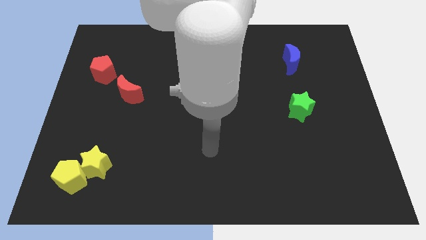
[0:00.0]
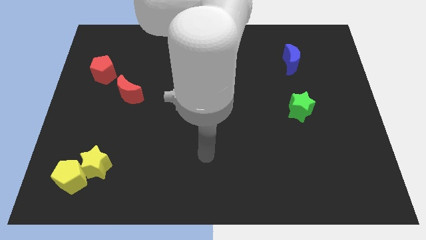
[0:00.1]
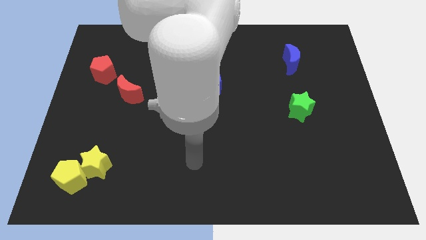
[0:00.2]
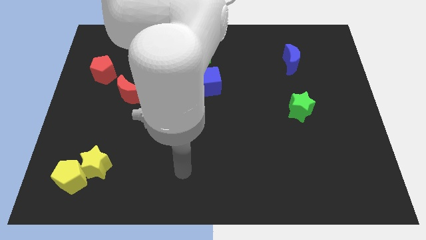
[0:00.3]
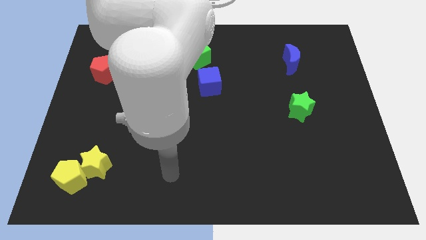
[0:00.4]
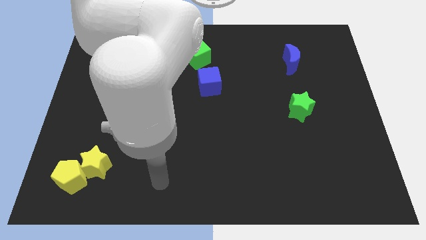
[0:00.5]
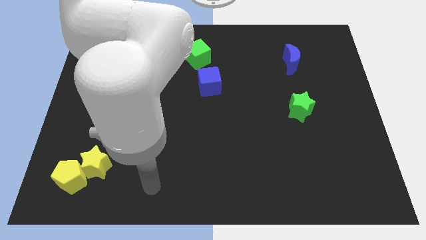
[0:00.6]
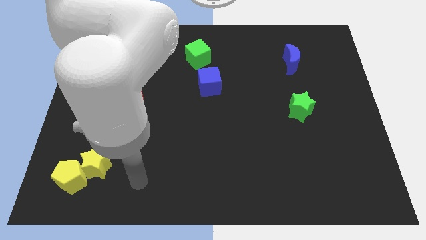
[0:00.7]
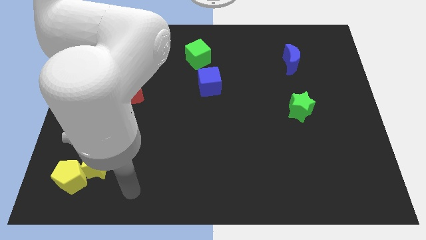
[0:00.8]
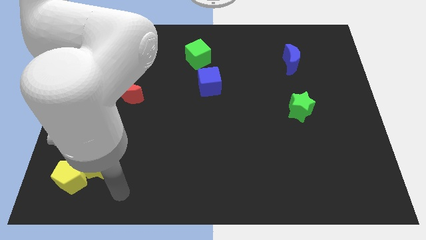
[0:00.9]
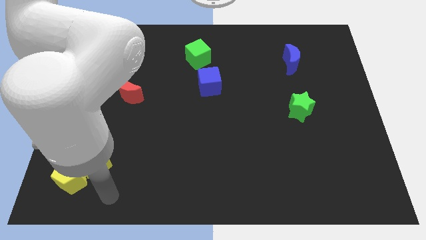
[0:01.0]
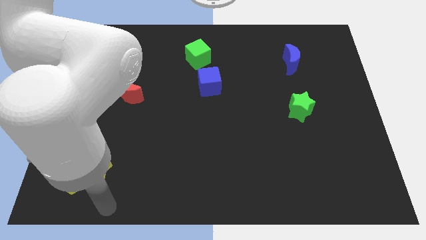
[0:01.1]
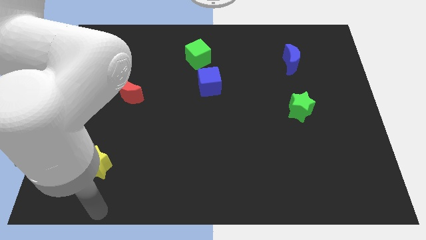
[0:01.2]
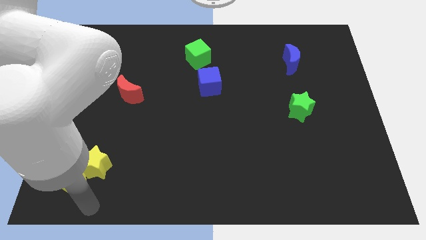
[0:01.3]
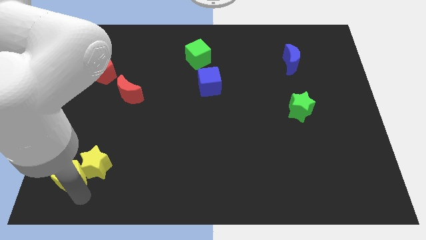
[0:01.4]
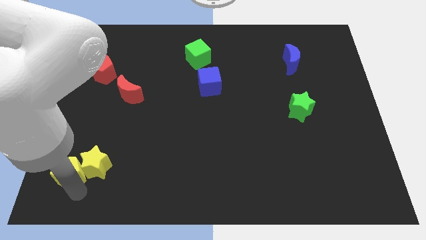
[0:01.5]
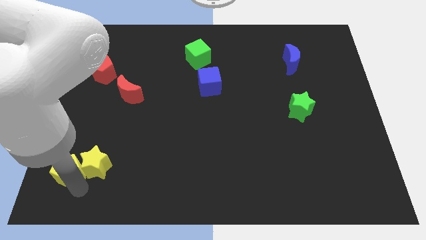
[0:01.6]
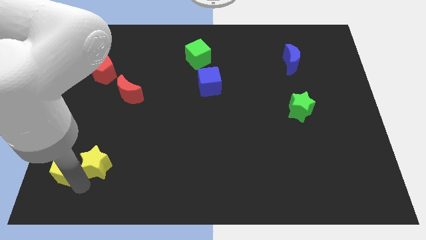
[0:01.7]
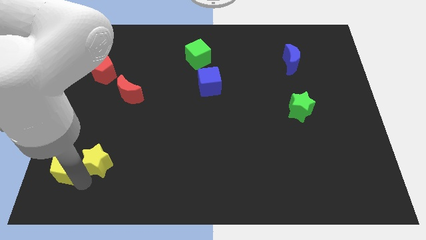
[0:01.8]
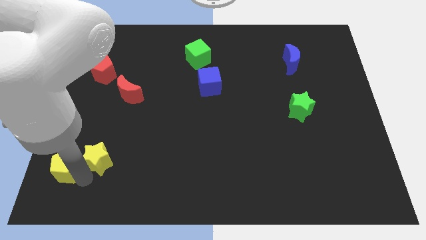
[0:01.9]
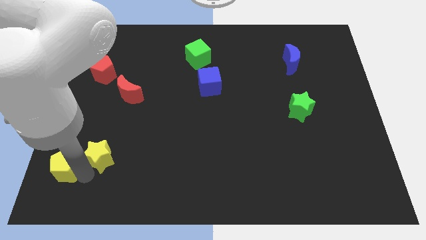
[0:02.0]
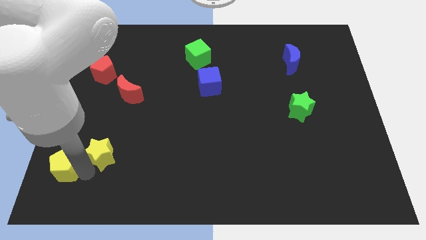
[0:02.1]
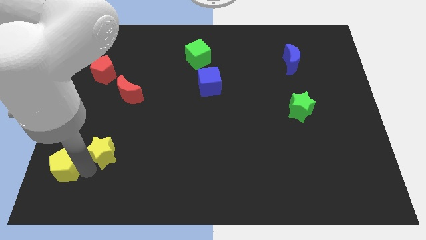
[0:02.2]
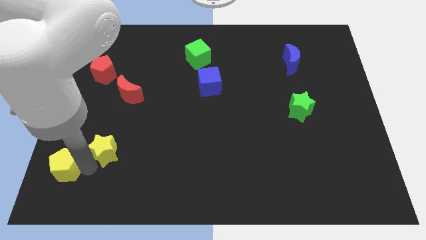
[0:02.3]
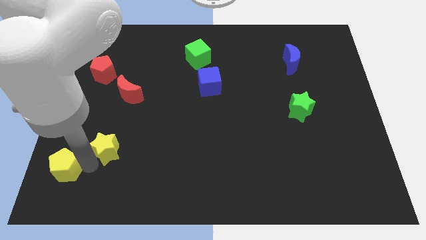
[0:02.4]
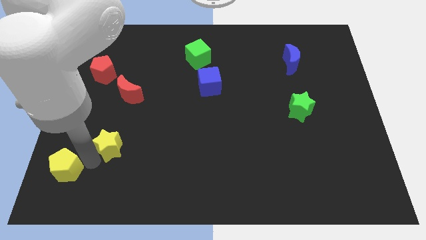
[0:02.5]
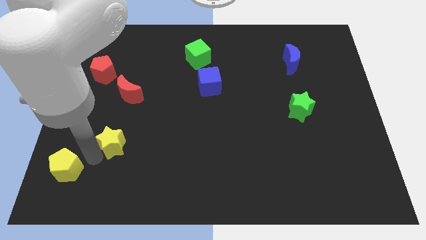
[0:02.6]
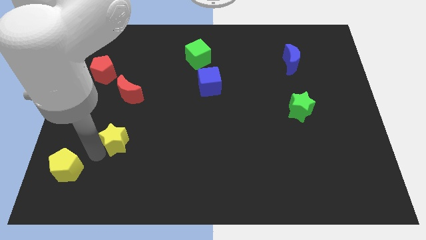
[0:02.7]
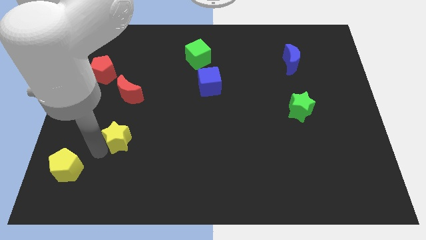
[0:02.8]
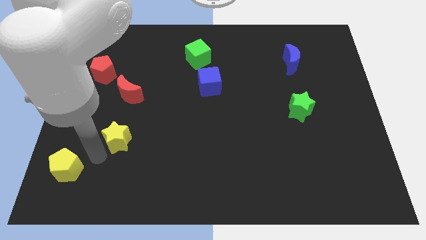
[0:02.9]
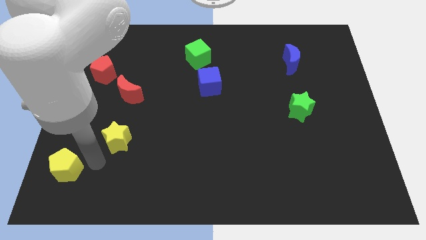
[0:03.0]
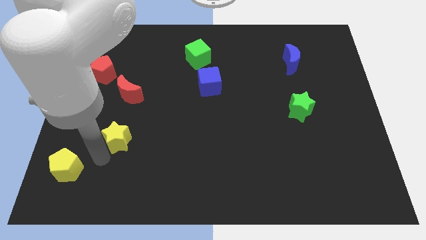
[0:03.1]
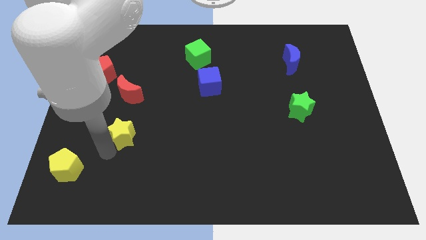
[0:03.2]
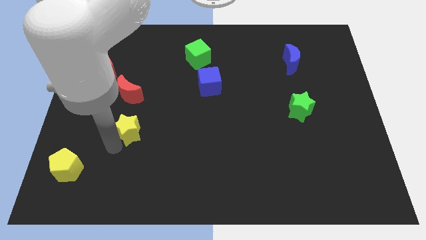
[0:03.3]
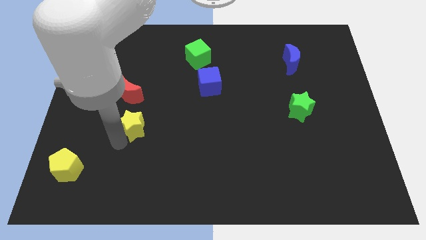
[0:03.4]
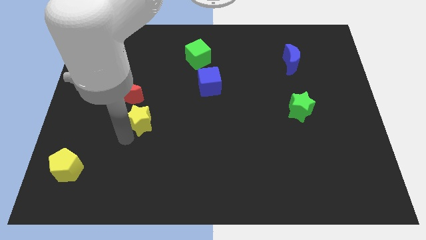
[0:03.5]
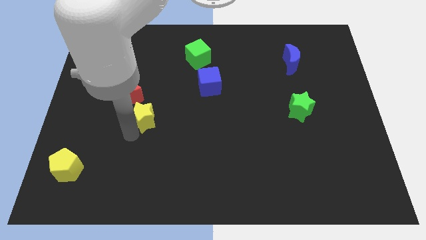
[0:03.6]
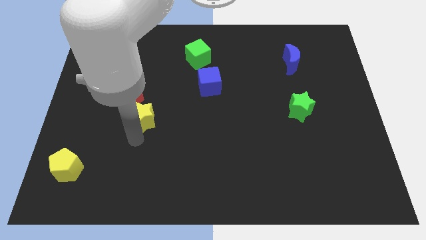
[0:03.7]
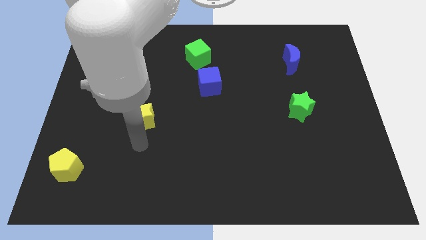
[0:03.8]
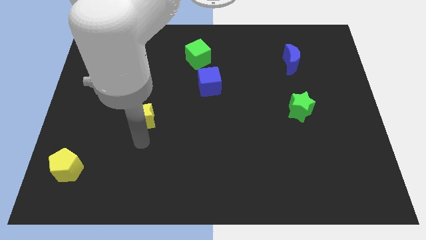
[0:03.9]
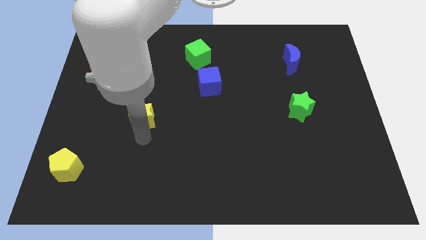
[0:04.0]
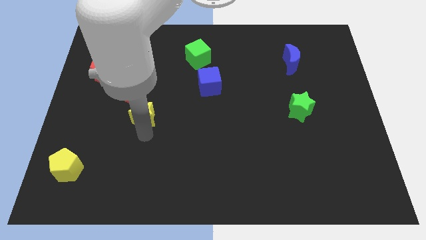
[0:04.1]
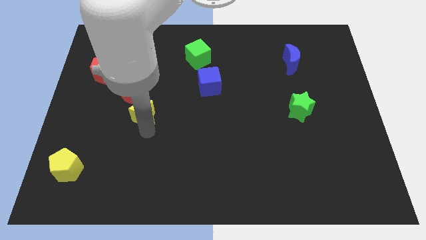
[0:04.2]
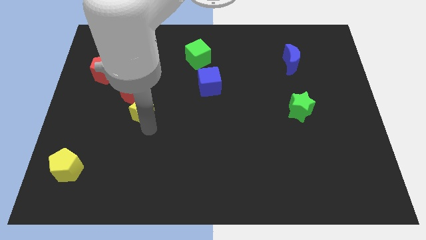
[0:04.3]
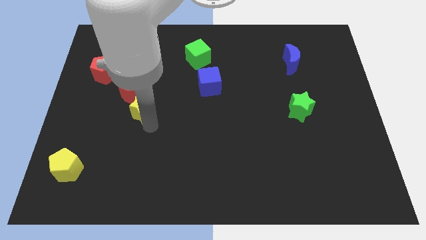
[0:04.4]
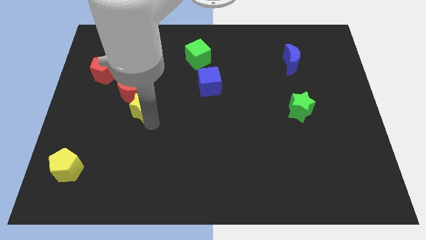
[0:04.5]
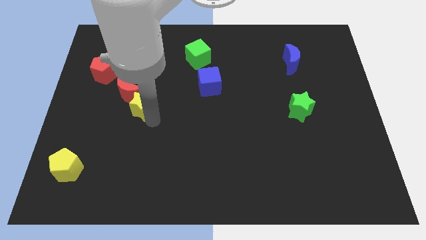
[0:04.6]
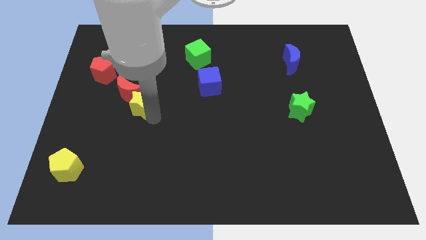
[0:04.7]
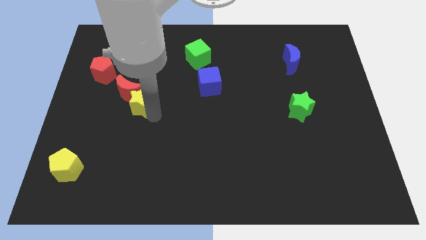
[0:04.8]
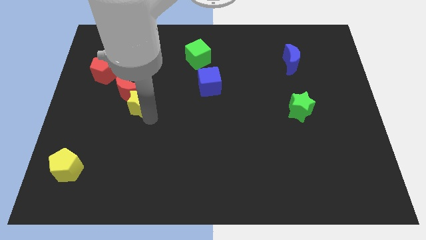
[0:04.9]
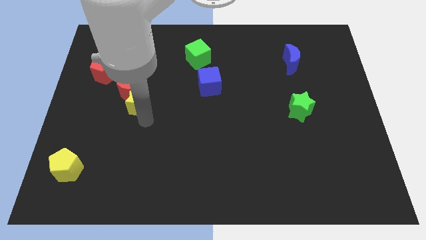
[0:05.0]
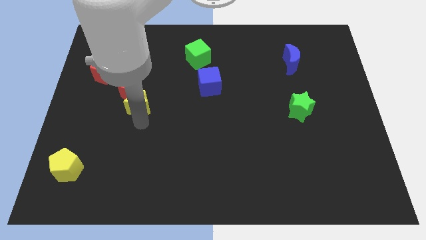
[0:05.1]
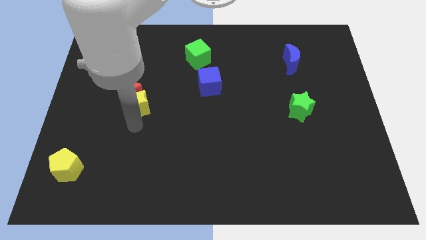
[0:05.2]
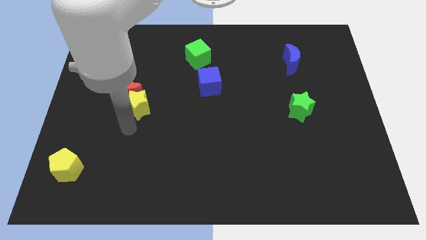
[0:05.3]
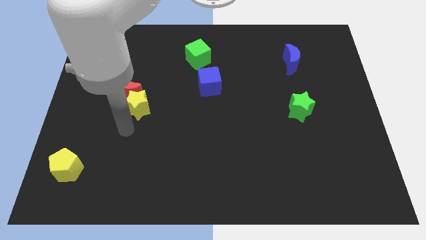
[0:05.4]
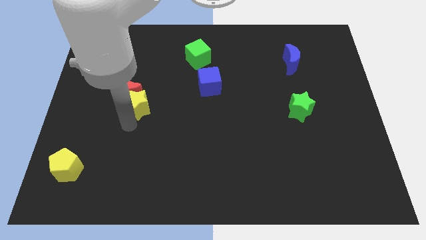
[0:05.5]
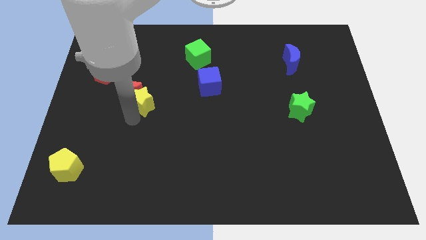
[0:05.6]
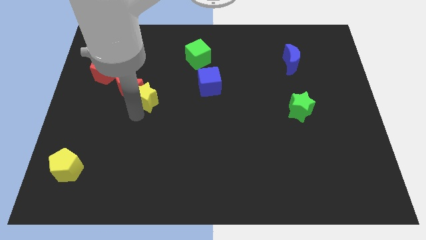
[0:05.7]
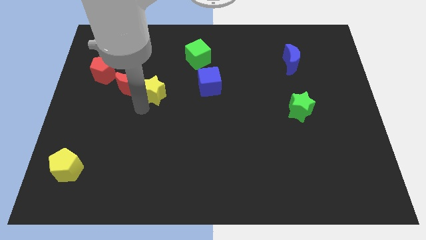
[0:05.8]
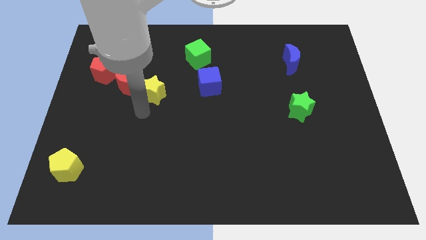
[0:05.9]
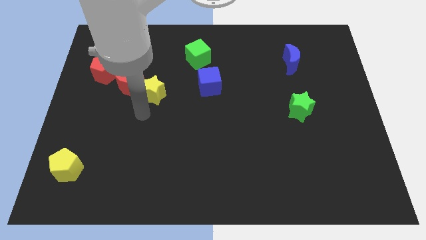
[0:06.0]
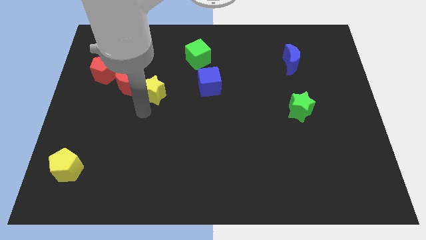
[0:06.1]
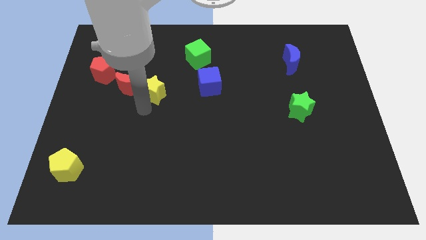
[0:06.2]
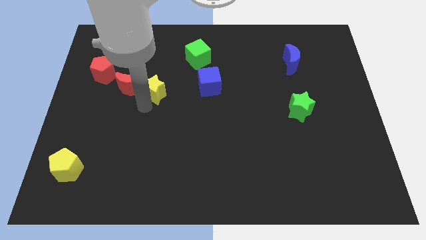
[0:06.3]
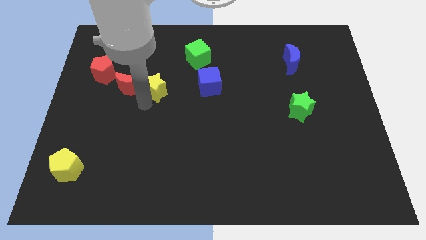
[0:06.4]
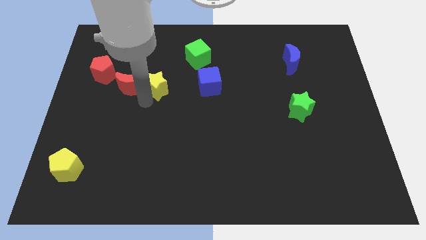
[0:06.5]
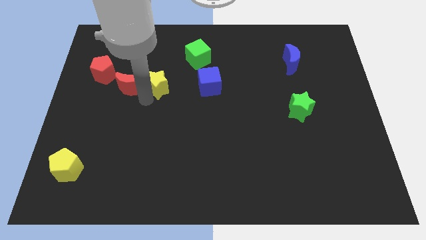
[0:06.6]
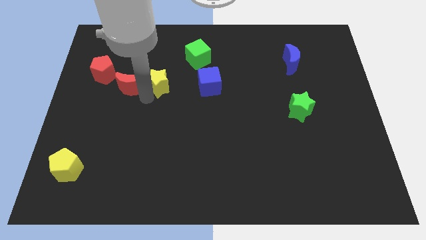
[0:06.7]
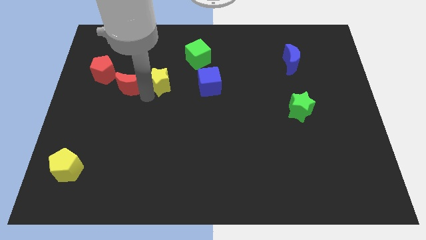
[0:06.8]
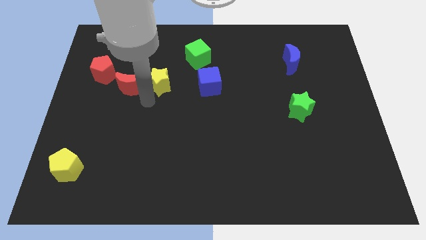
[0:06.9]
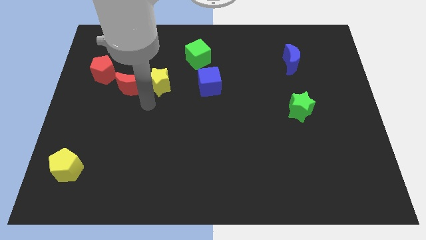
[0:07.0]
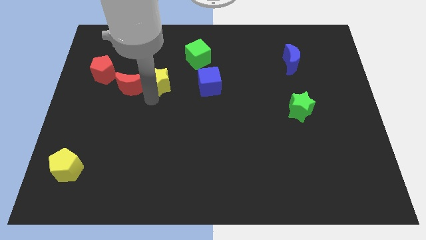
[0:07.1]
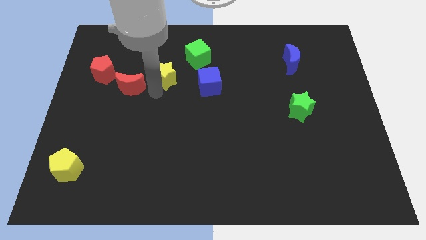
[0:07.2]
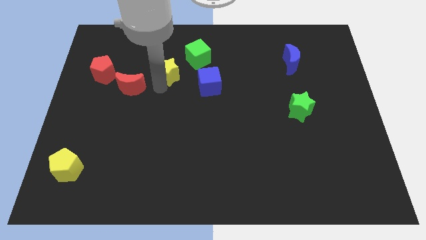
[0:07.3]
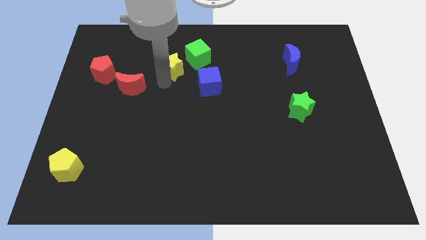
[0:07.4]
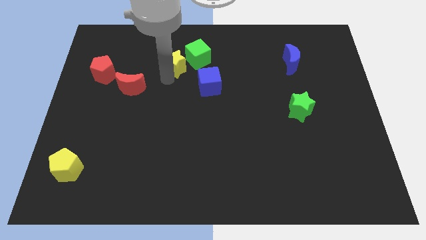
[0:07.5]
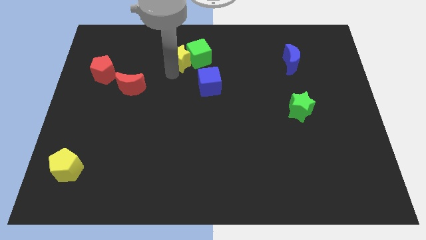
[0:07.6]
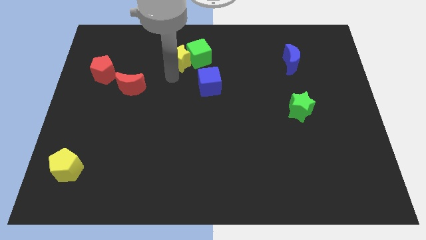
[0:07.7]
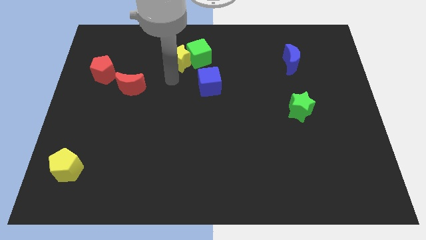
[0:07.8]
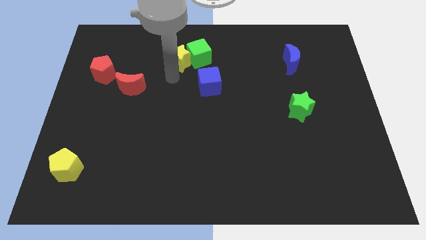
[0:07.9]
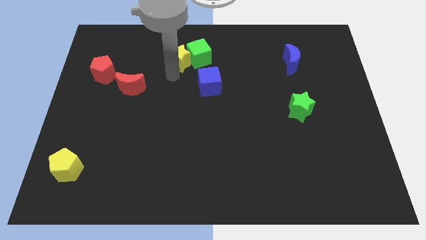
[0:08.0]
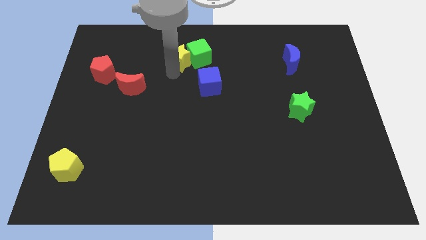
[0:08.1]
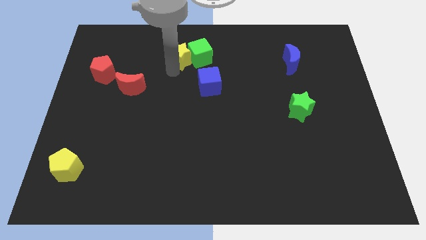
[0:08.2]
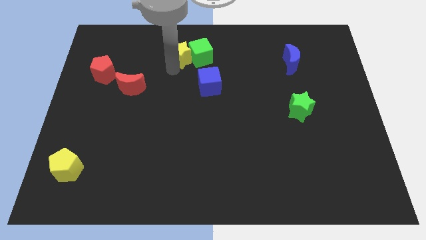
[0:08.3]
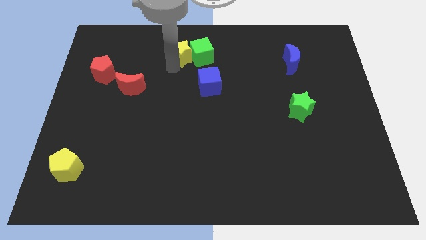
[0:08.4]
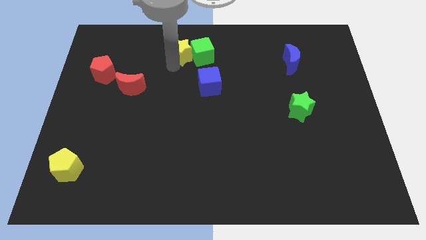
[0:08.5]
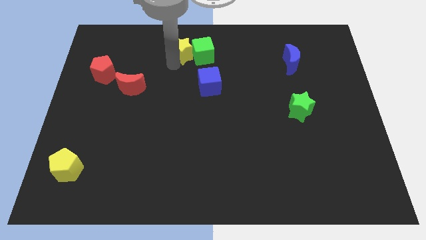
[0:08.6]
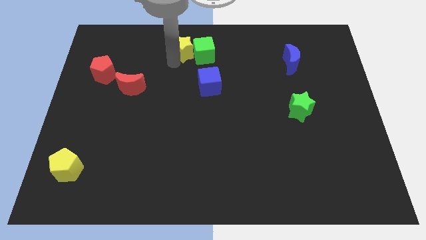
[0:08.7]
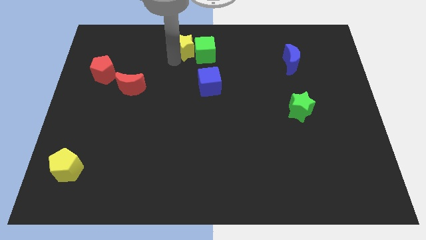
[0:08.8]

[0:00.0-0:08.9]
slide the yellow star to the top
